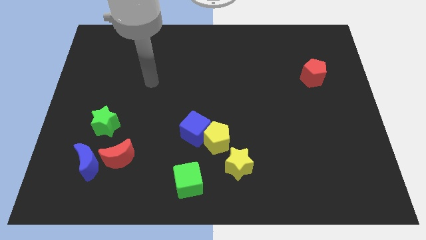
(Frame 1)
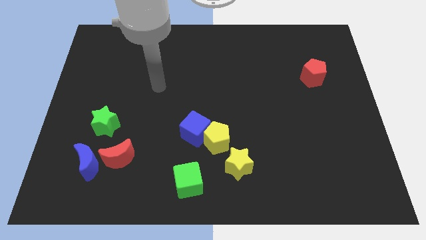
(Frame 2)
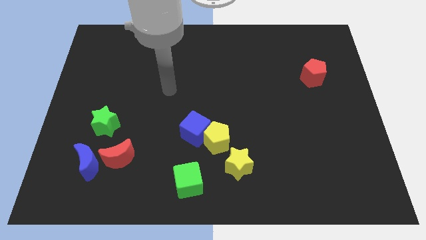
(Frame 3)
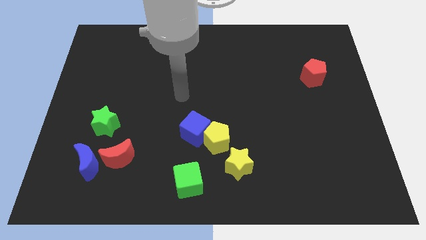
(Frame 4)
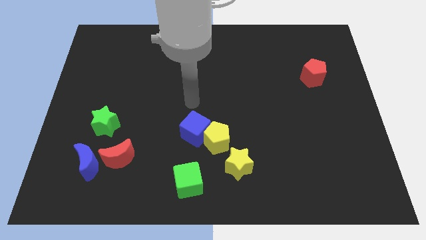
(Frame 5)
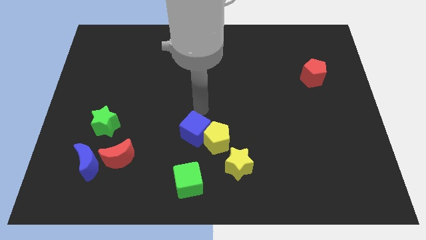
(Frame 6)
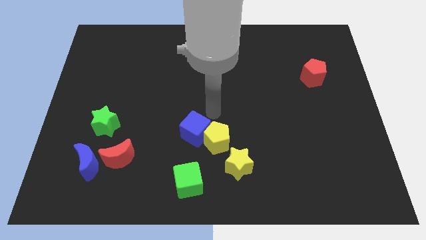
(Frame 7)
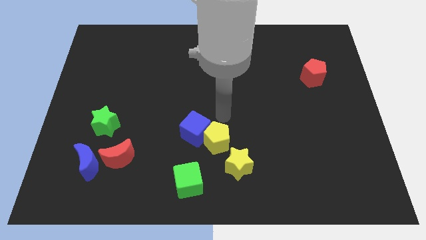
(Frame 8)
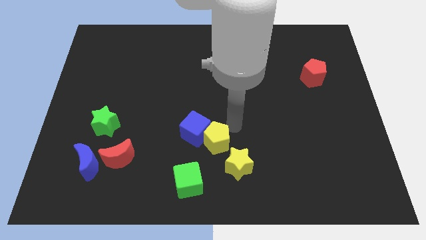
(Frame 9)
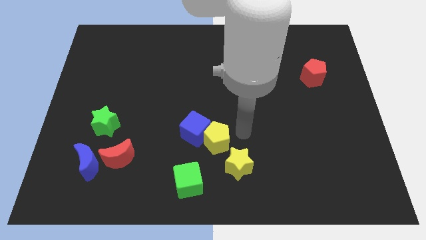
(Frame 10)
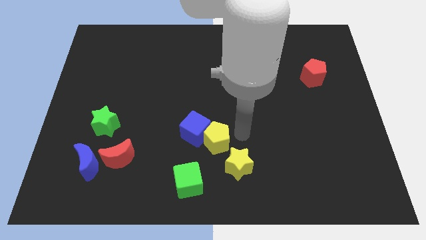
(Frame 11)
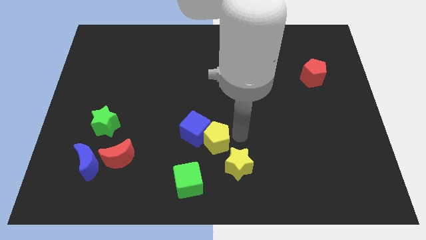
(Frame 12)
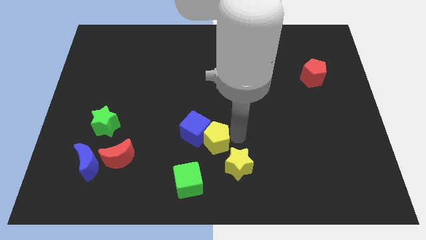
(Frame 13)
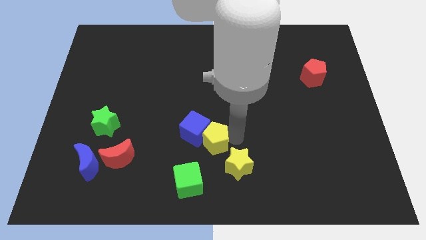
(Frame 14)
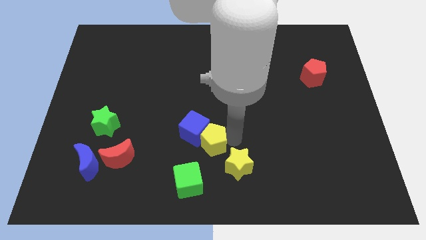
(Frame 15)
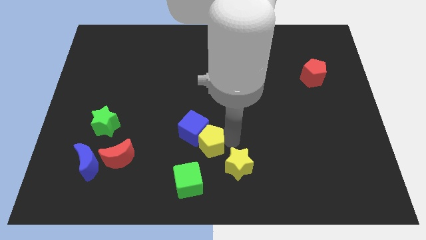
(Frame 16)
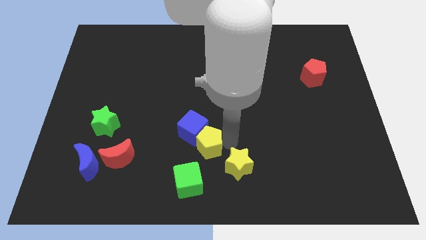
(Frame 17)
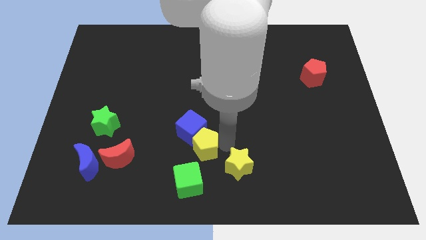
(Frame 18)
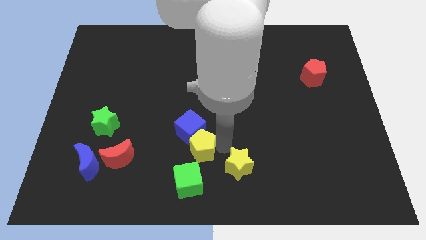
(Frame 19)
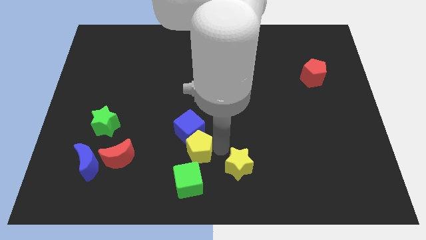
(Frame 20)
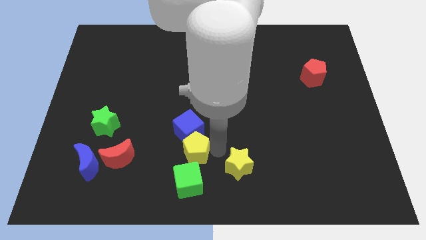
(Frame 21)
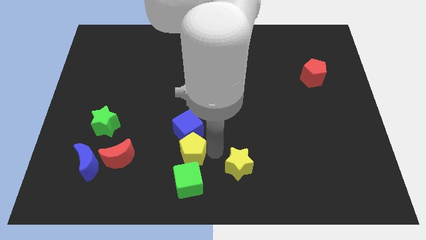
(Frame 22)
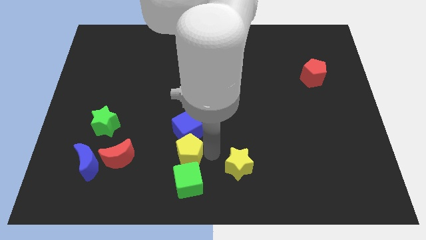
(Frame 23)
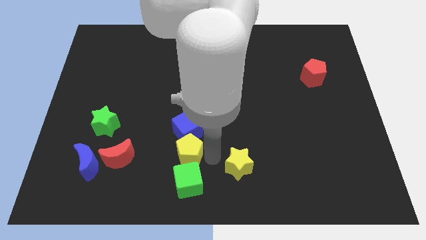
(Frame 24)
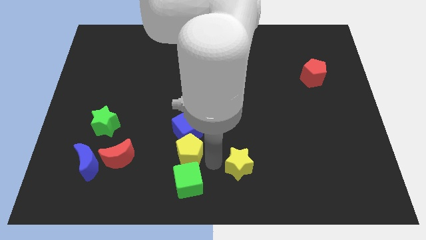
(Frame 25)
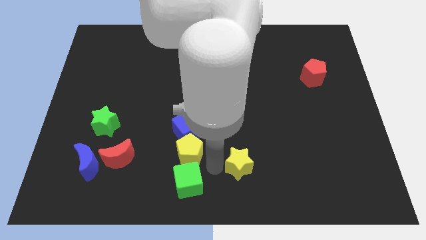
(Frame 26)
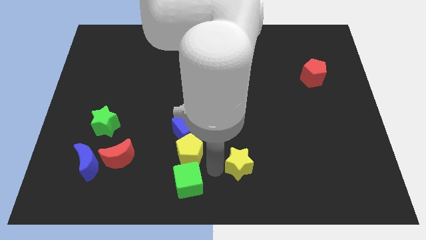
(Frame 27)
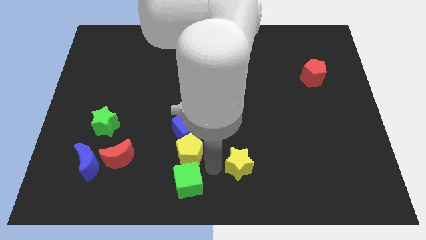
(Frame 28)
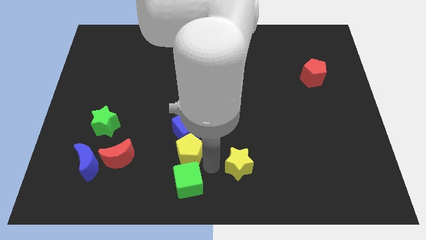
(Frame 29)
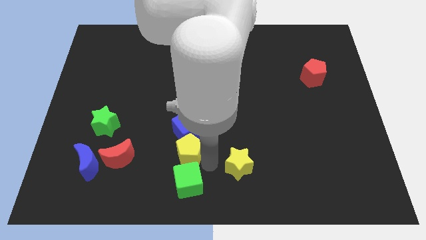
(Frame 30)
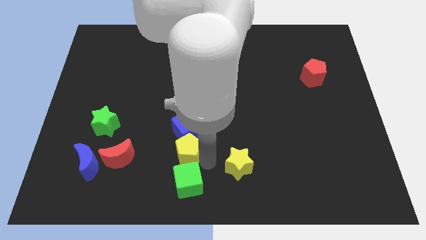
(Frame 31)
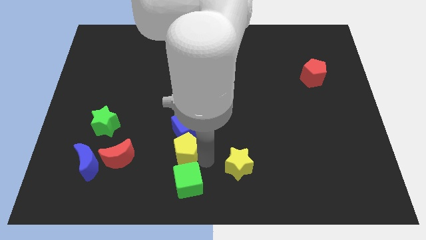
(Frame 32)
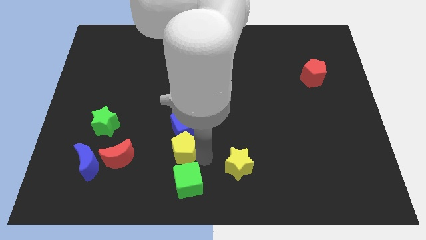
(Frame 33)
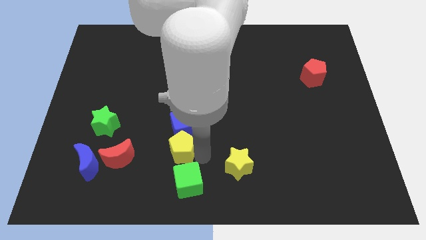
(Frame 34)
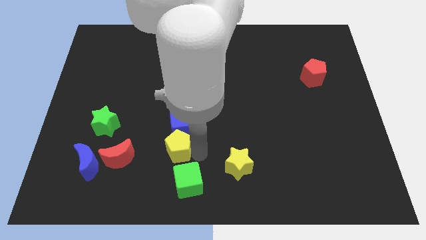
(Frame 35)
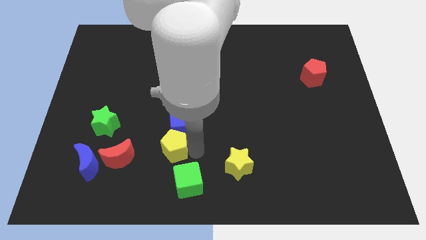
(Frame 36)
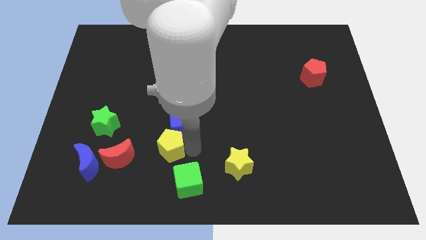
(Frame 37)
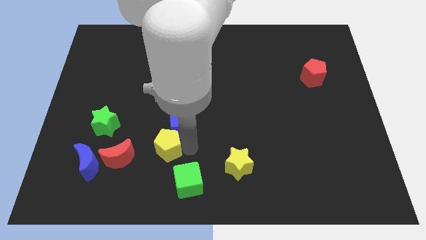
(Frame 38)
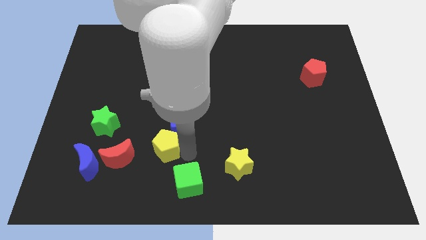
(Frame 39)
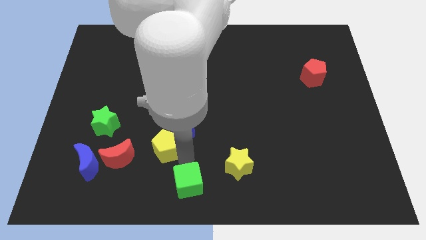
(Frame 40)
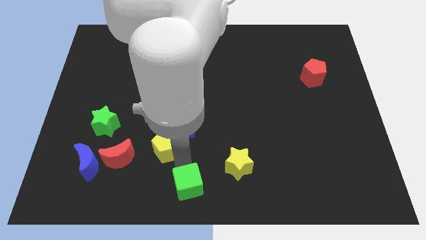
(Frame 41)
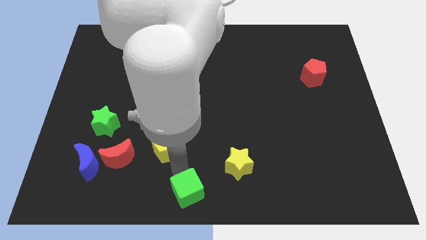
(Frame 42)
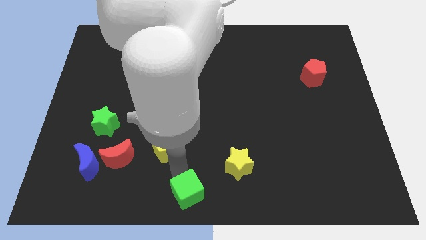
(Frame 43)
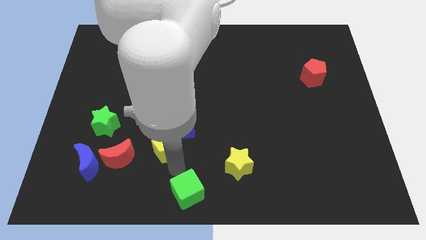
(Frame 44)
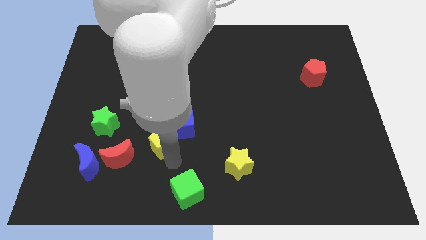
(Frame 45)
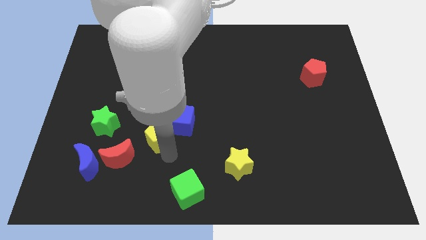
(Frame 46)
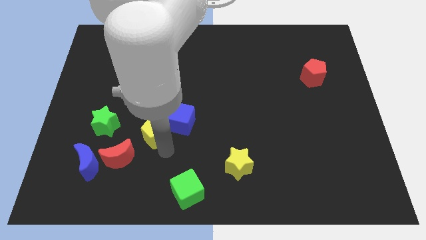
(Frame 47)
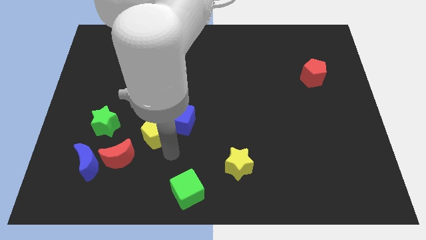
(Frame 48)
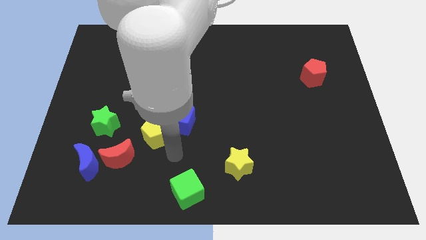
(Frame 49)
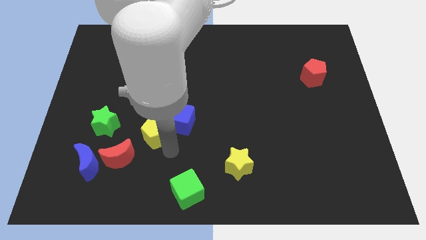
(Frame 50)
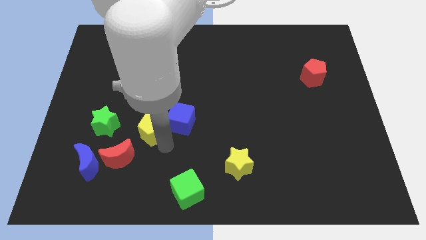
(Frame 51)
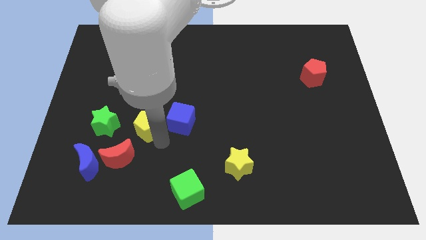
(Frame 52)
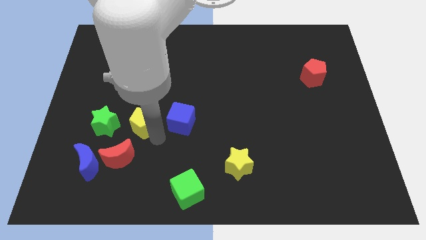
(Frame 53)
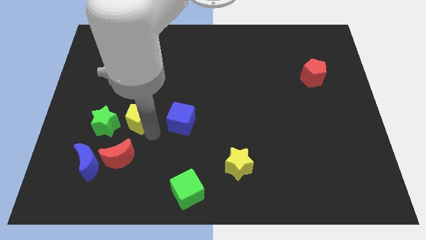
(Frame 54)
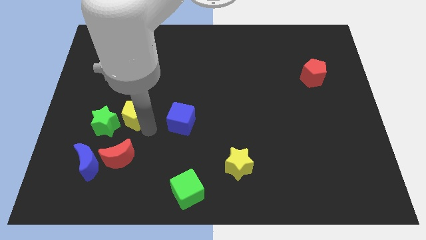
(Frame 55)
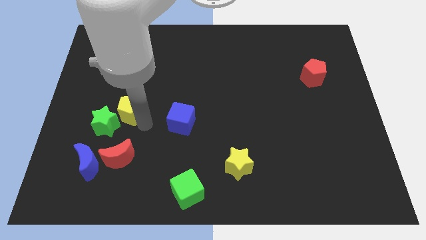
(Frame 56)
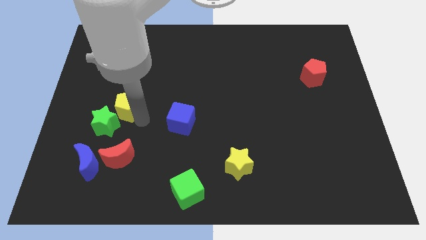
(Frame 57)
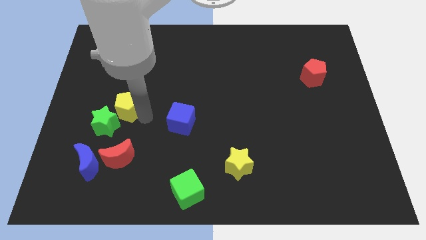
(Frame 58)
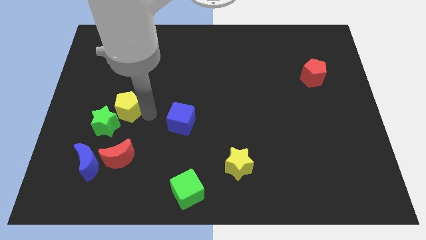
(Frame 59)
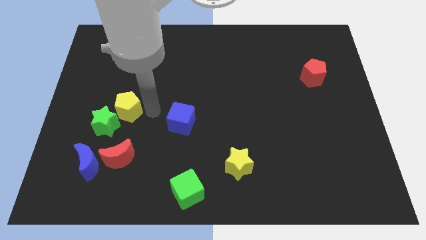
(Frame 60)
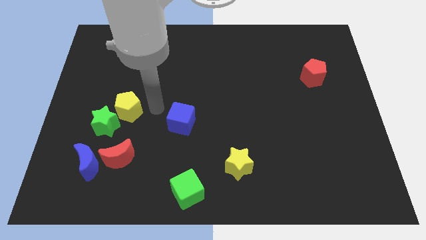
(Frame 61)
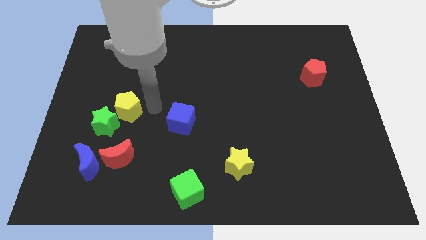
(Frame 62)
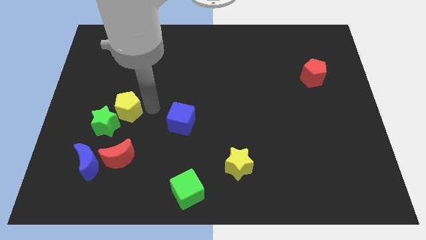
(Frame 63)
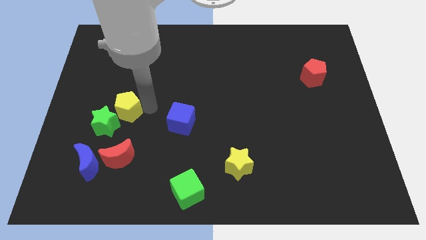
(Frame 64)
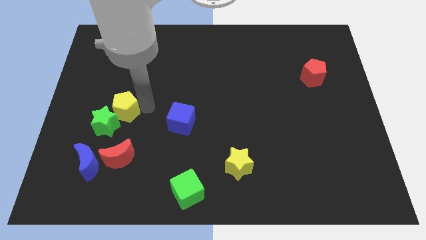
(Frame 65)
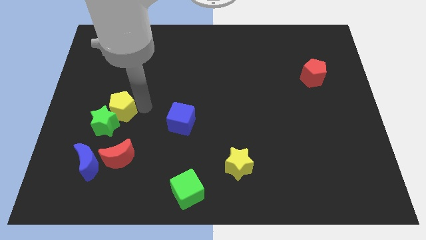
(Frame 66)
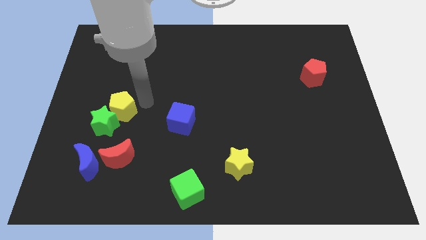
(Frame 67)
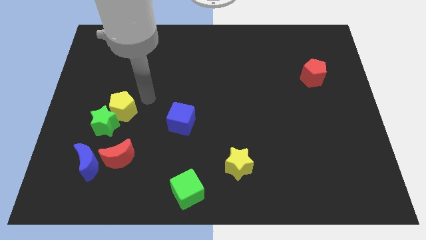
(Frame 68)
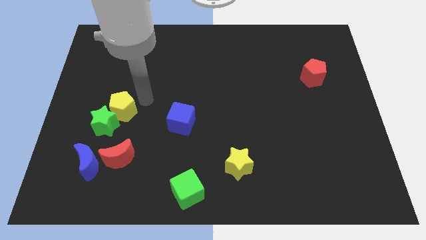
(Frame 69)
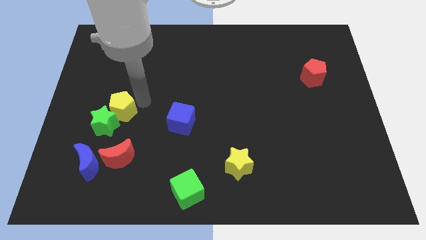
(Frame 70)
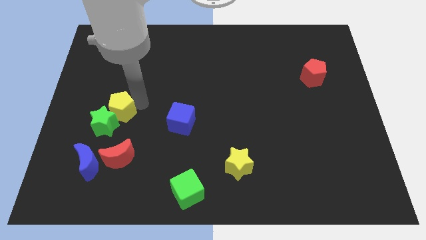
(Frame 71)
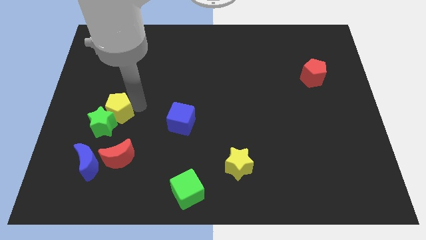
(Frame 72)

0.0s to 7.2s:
put the yellow pentagon to the top side of the blue moon
